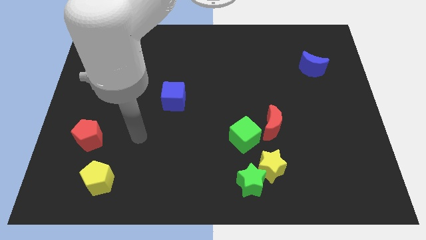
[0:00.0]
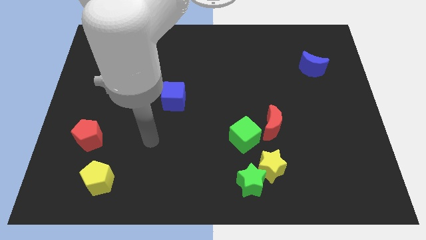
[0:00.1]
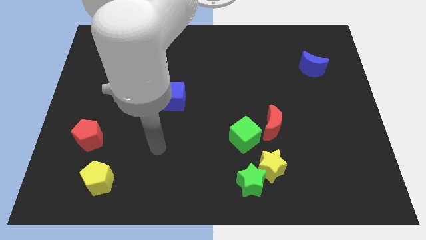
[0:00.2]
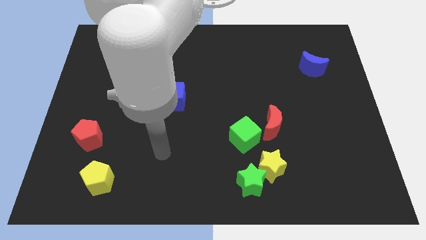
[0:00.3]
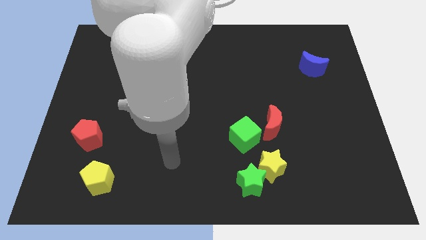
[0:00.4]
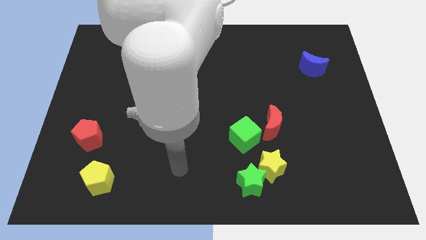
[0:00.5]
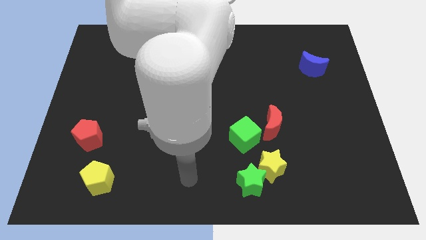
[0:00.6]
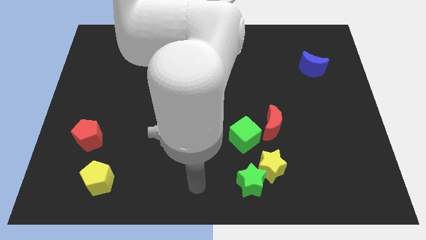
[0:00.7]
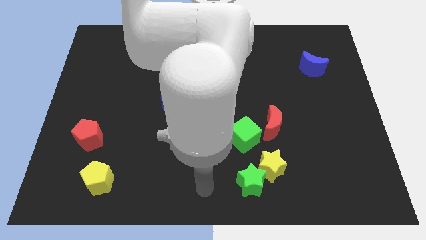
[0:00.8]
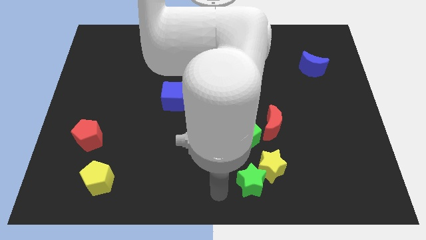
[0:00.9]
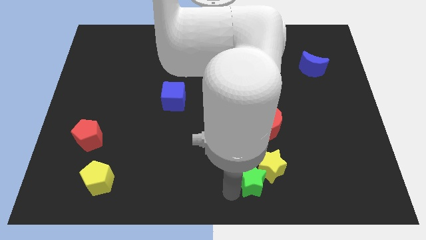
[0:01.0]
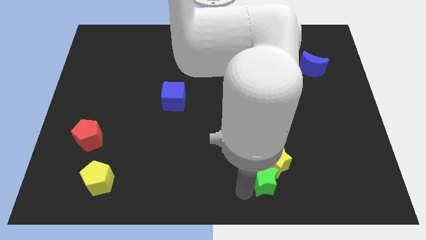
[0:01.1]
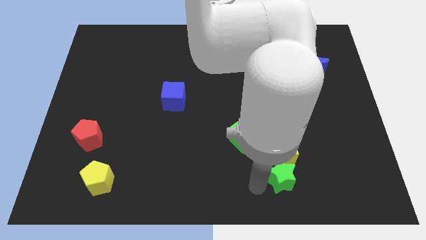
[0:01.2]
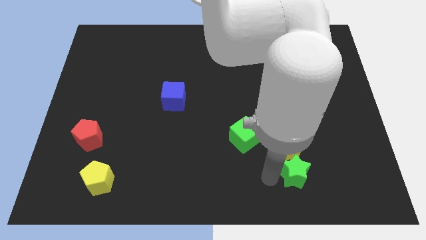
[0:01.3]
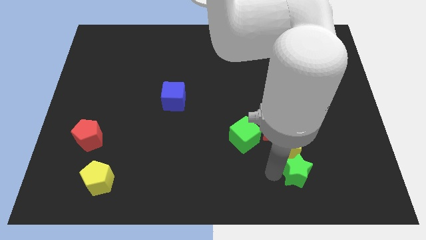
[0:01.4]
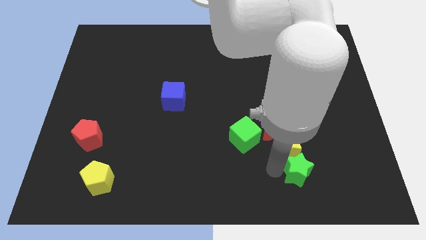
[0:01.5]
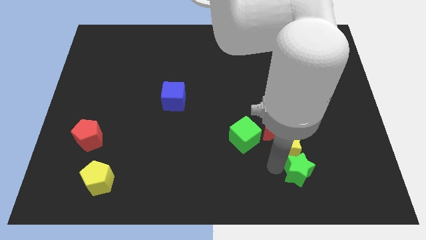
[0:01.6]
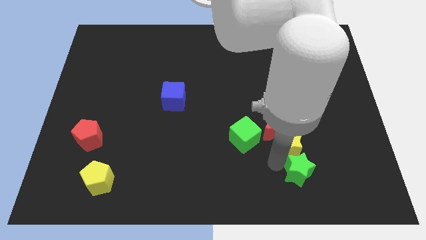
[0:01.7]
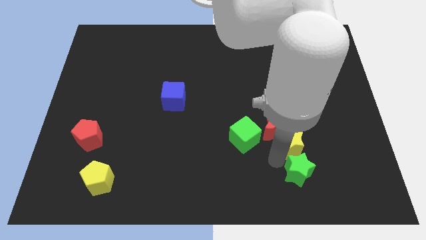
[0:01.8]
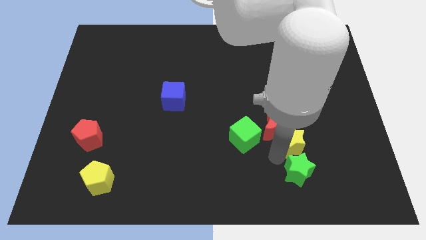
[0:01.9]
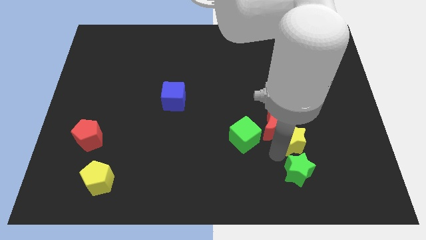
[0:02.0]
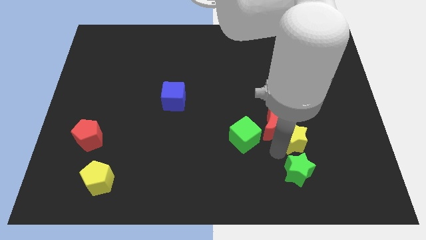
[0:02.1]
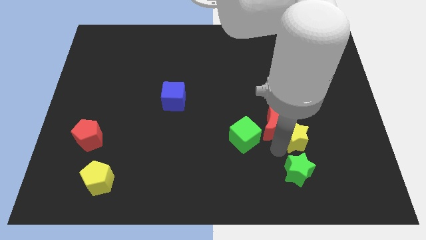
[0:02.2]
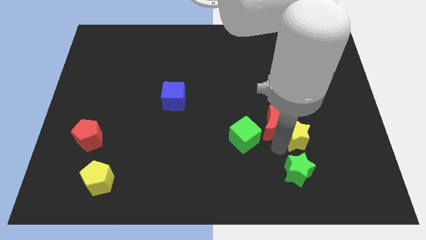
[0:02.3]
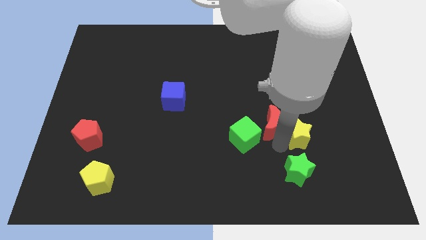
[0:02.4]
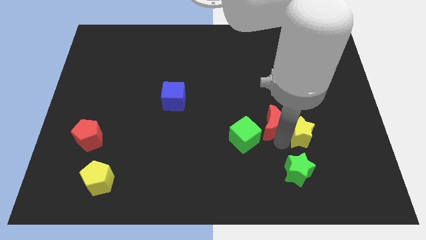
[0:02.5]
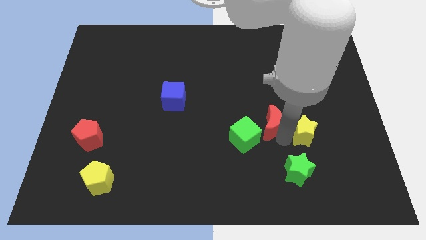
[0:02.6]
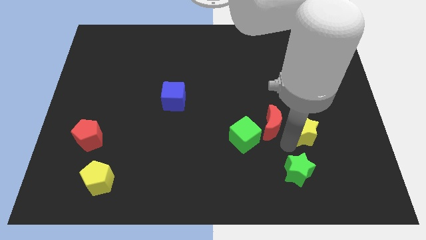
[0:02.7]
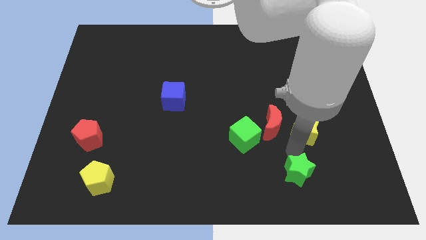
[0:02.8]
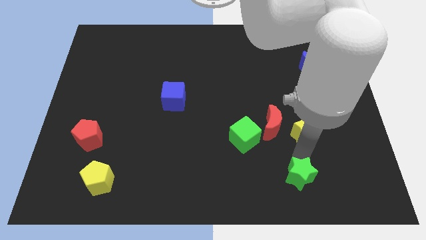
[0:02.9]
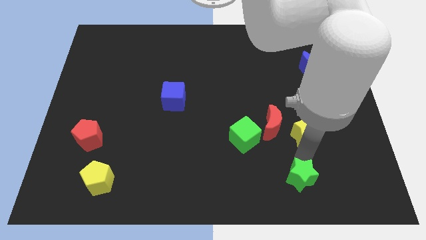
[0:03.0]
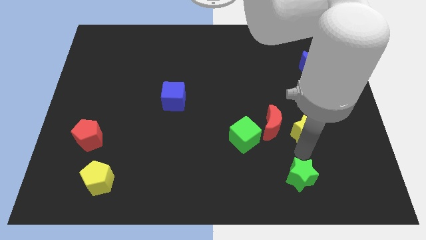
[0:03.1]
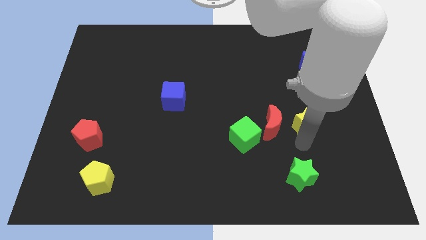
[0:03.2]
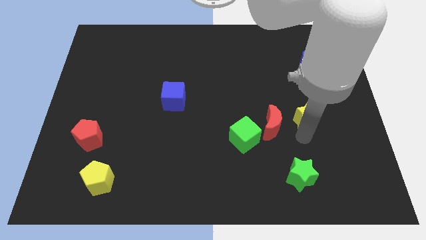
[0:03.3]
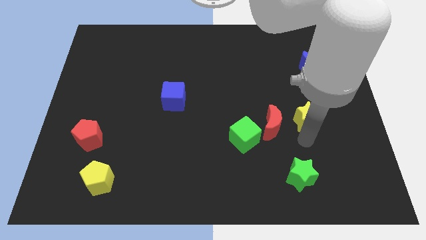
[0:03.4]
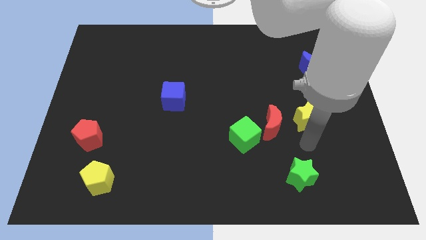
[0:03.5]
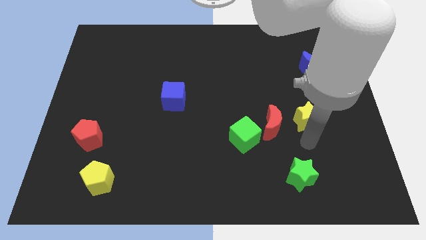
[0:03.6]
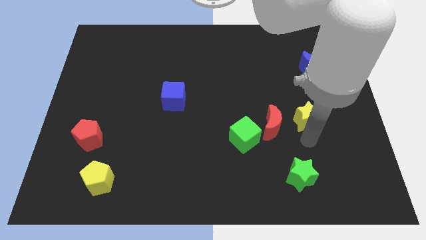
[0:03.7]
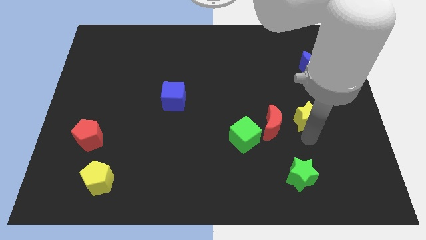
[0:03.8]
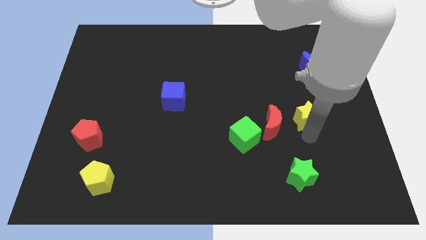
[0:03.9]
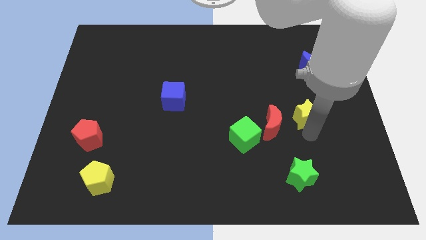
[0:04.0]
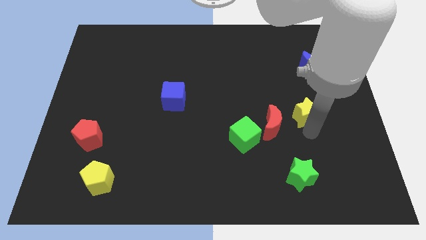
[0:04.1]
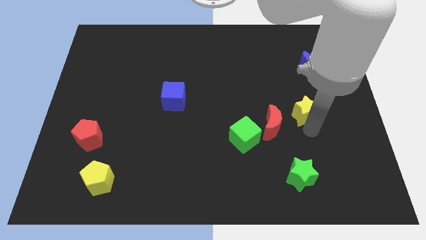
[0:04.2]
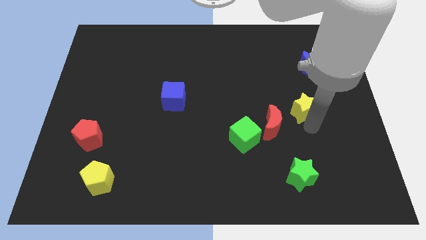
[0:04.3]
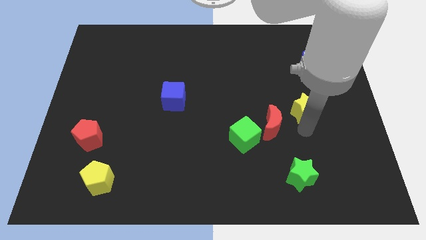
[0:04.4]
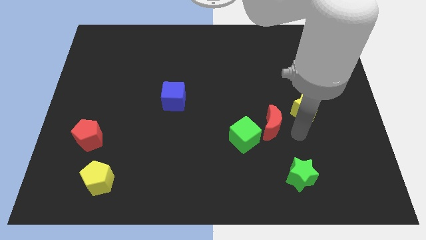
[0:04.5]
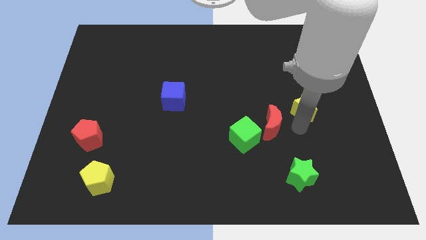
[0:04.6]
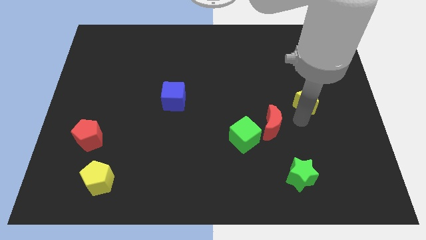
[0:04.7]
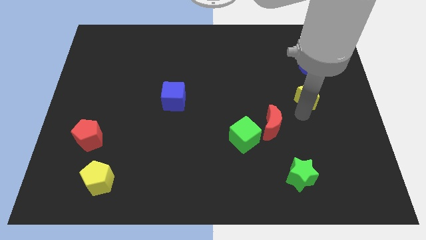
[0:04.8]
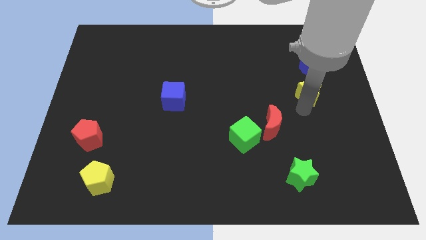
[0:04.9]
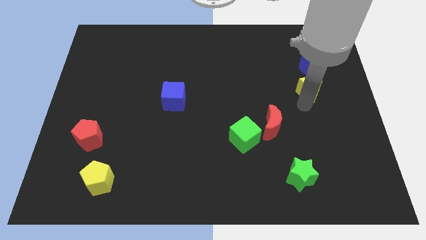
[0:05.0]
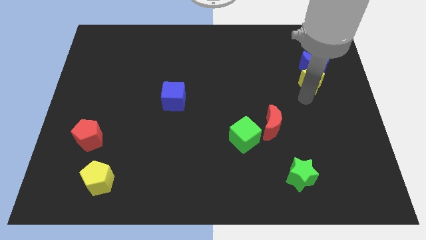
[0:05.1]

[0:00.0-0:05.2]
put the yellow star close to the blue moon

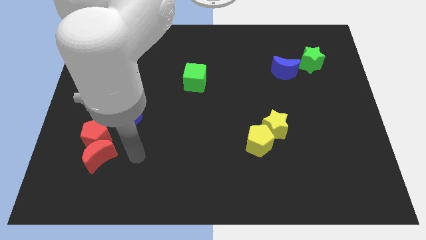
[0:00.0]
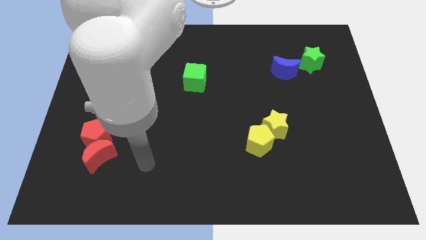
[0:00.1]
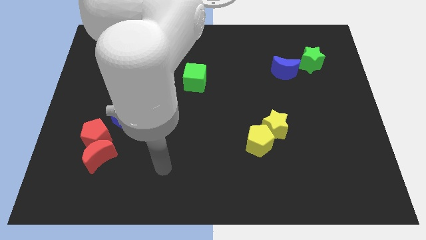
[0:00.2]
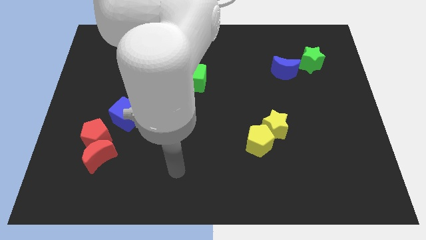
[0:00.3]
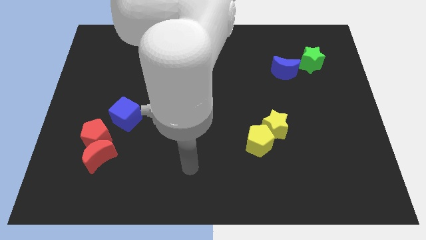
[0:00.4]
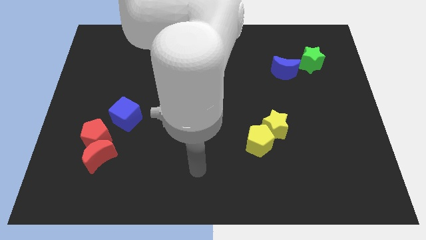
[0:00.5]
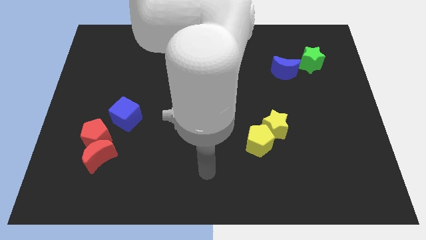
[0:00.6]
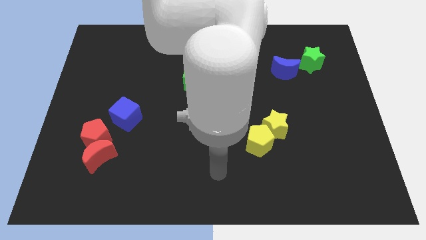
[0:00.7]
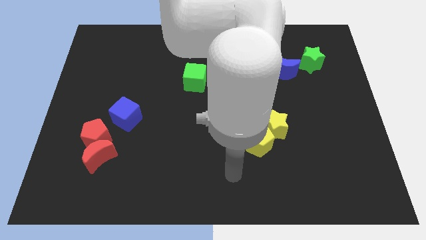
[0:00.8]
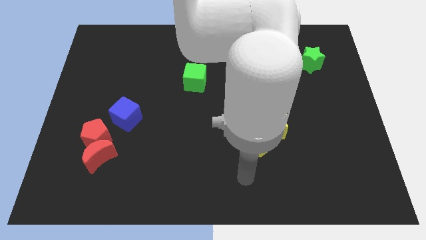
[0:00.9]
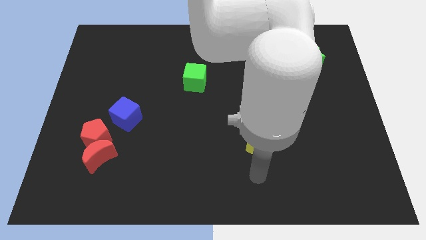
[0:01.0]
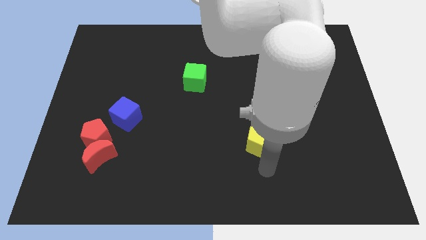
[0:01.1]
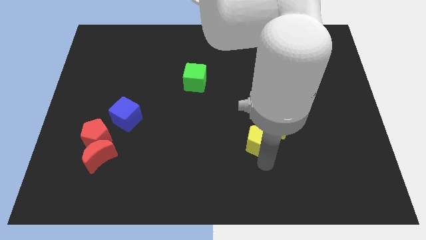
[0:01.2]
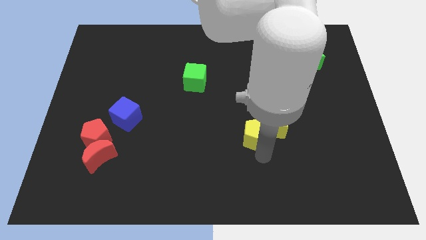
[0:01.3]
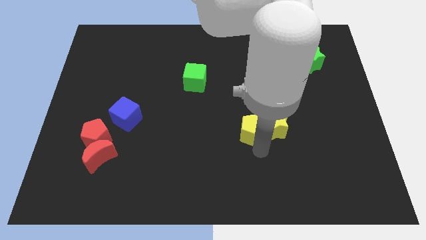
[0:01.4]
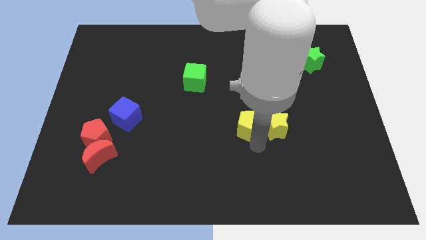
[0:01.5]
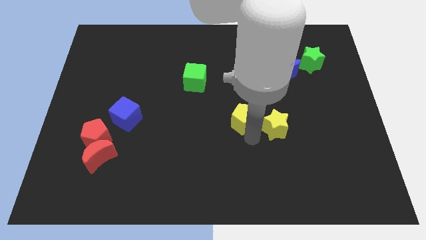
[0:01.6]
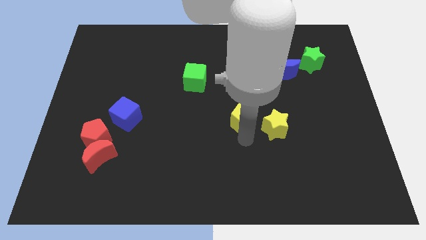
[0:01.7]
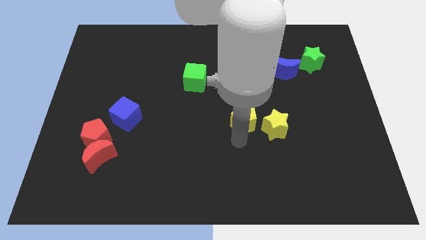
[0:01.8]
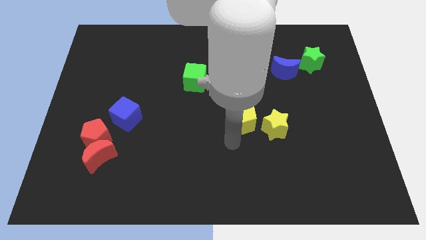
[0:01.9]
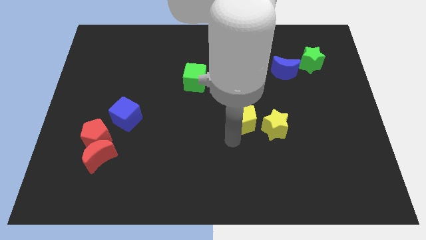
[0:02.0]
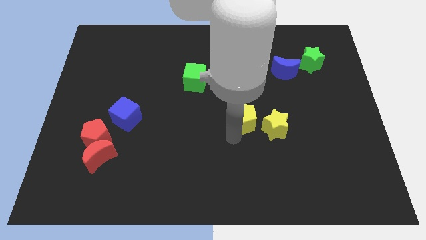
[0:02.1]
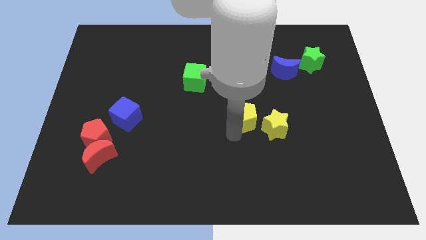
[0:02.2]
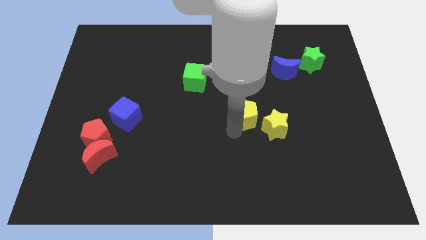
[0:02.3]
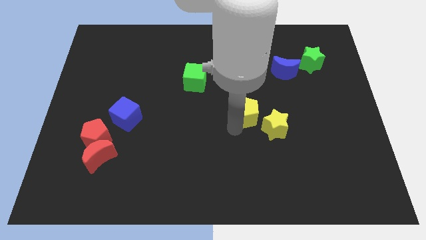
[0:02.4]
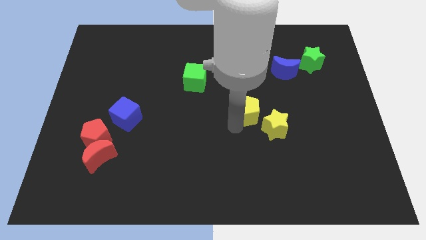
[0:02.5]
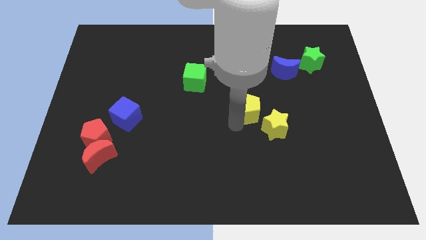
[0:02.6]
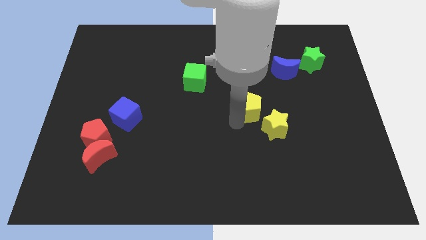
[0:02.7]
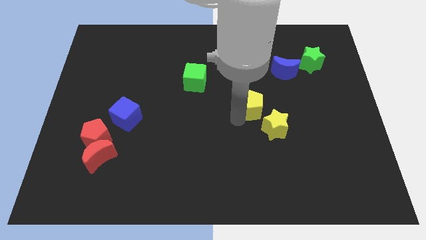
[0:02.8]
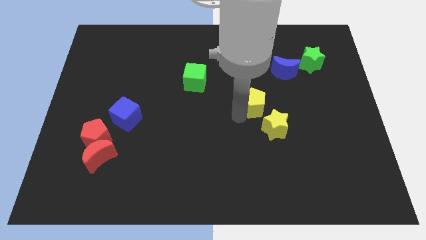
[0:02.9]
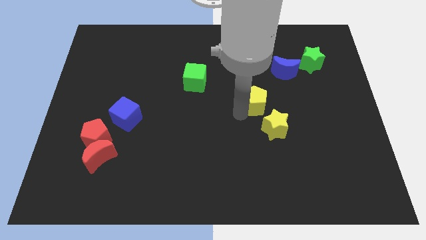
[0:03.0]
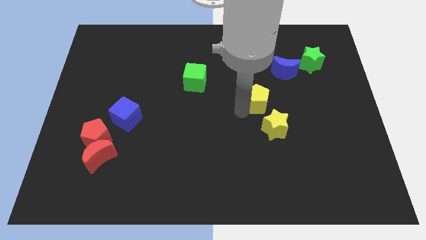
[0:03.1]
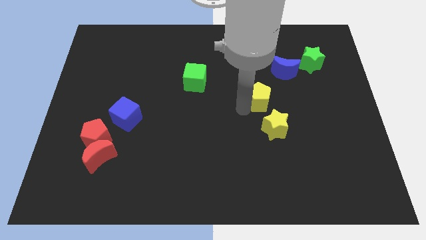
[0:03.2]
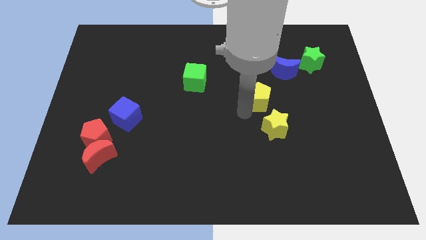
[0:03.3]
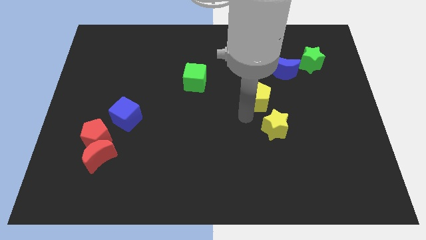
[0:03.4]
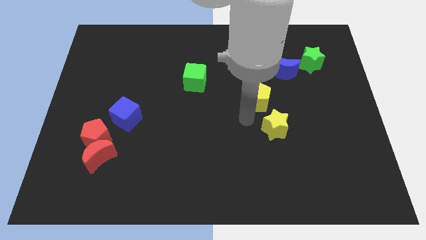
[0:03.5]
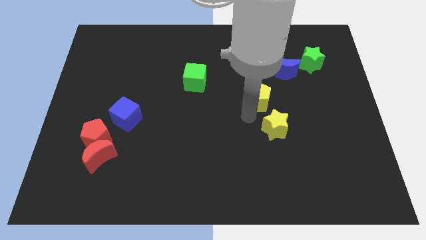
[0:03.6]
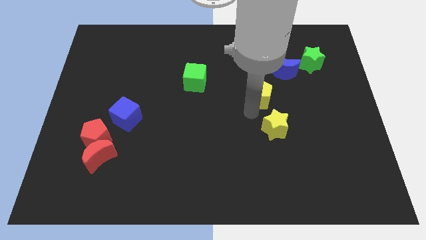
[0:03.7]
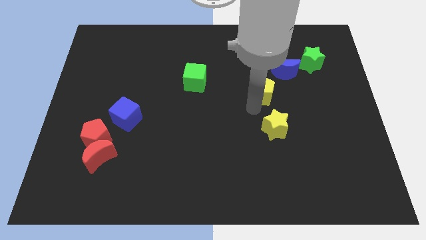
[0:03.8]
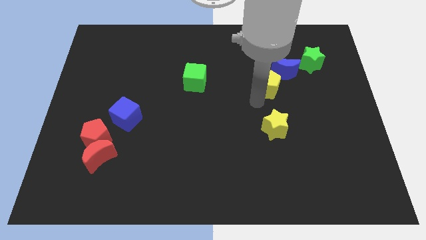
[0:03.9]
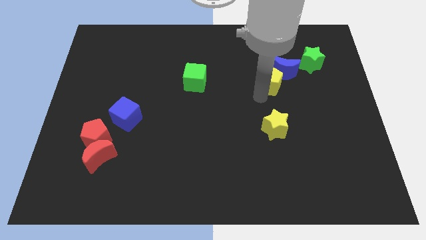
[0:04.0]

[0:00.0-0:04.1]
push the yellow pentagon to the blue moon
